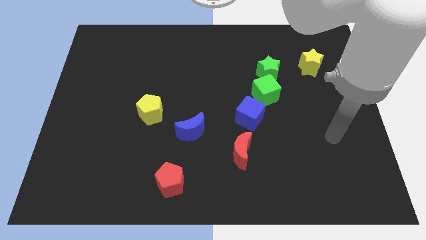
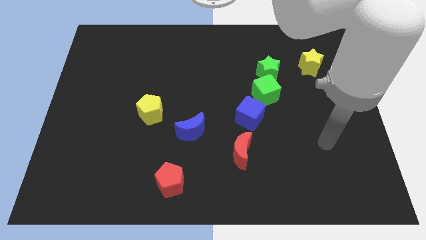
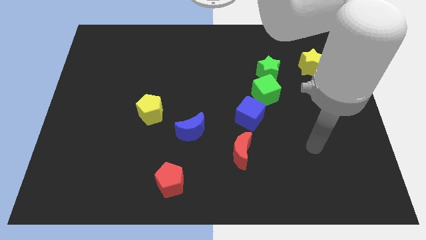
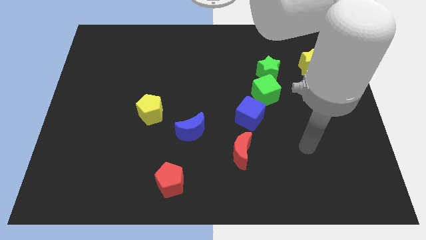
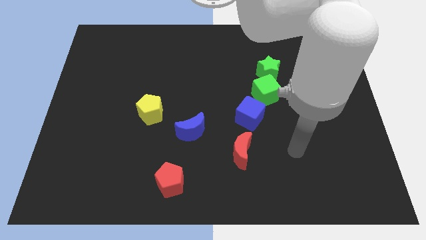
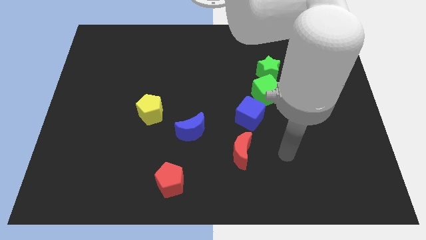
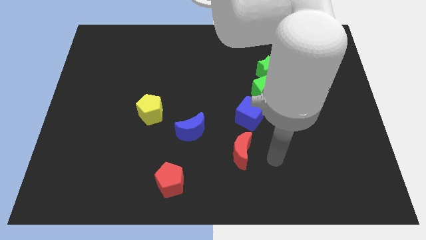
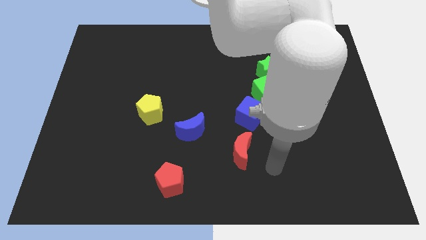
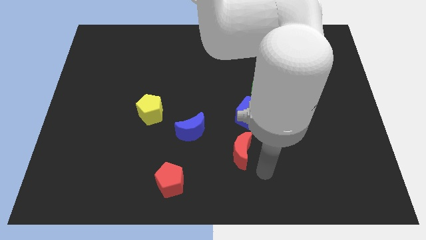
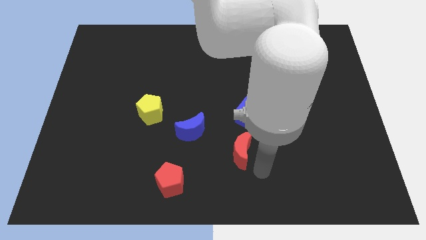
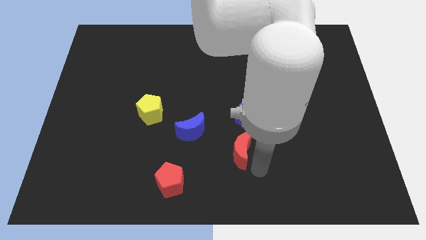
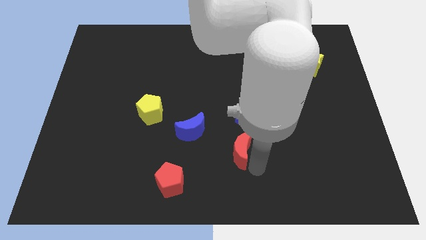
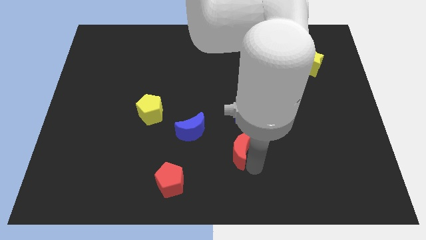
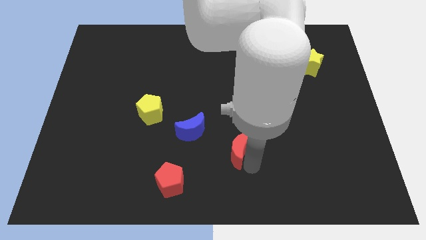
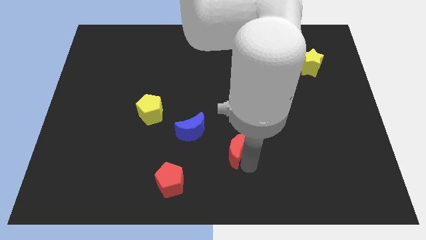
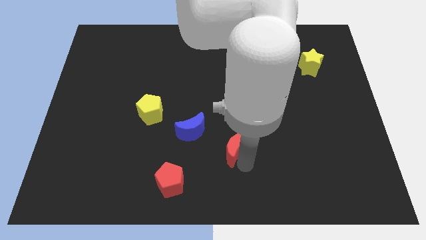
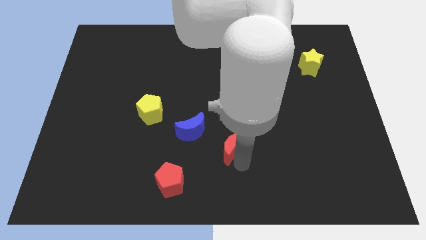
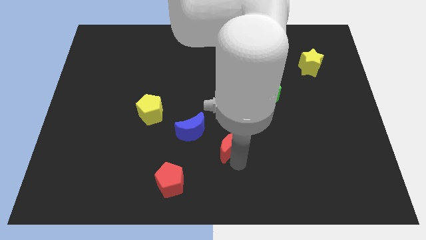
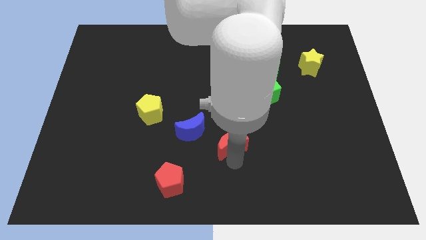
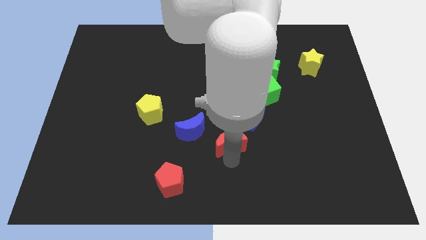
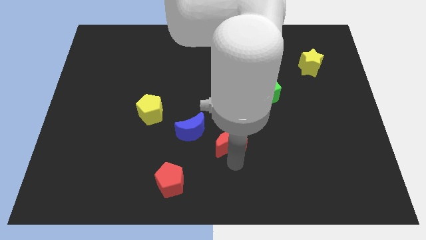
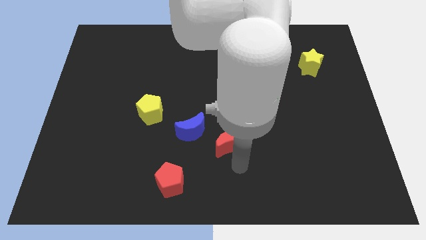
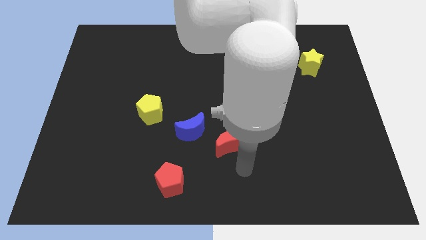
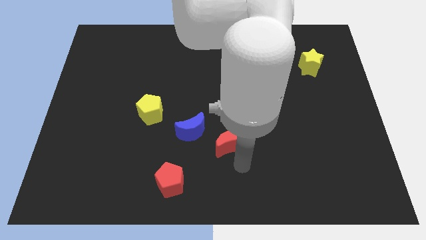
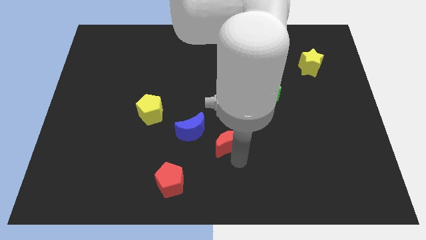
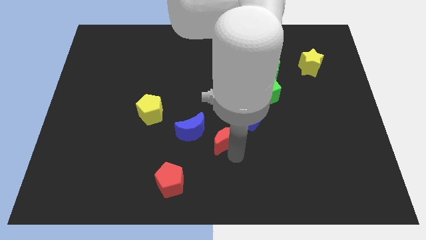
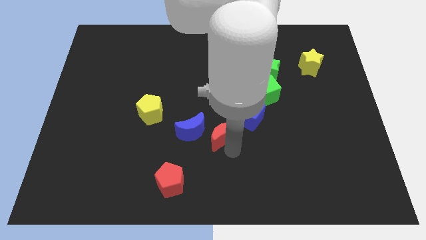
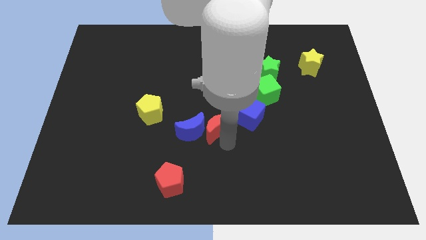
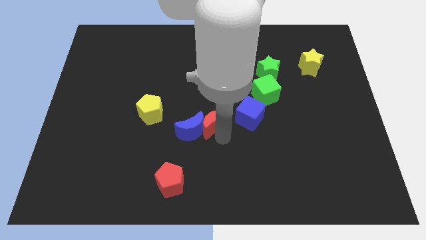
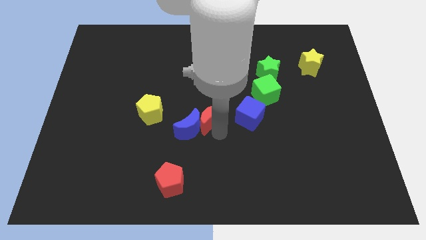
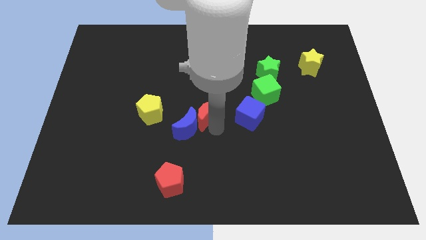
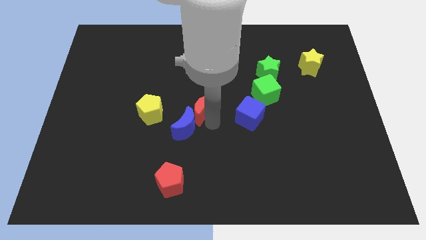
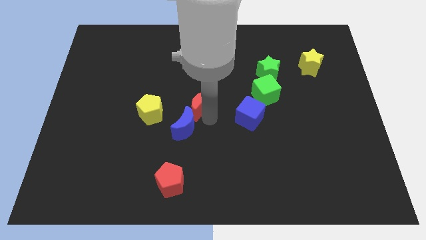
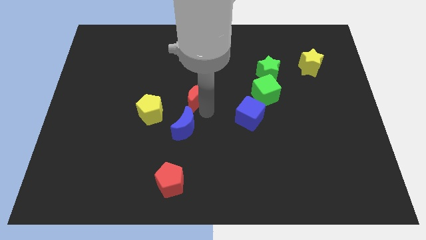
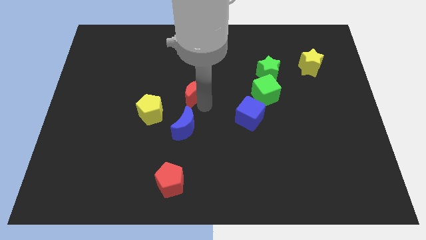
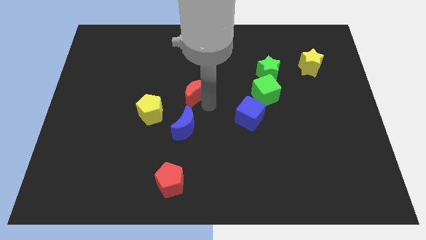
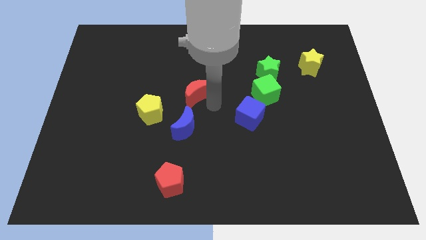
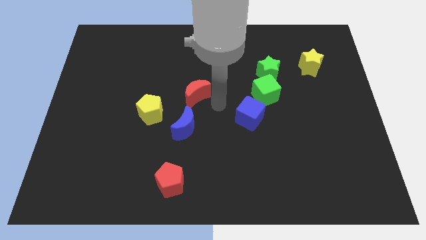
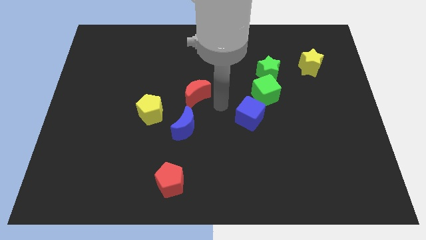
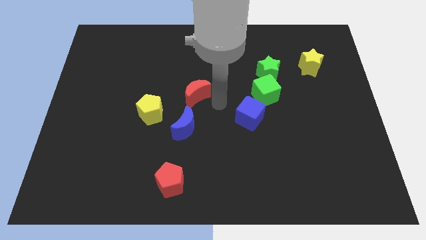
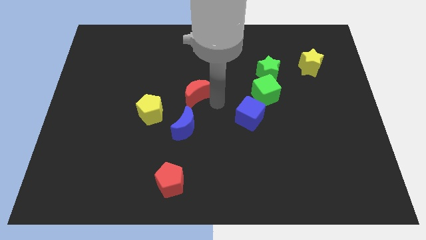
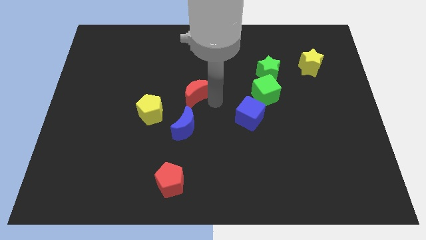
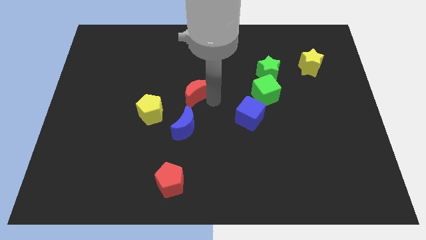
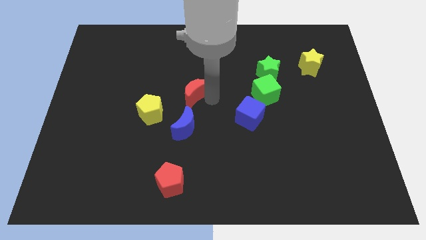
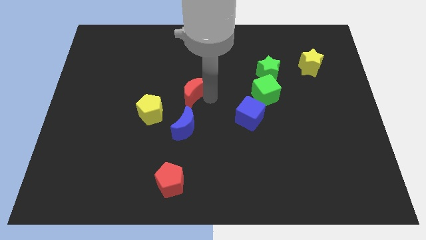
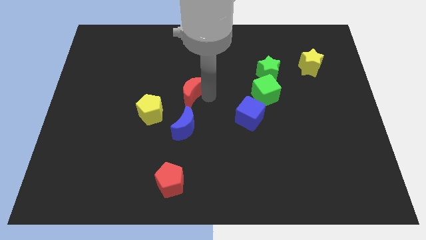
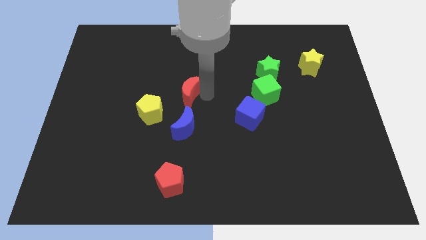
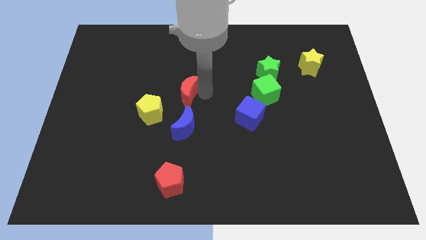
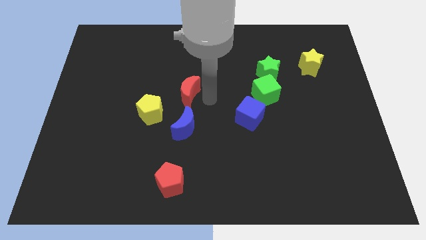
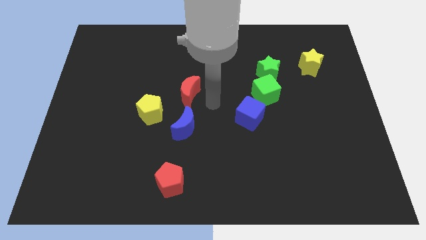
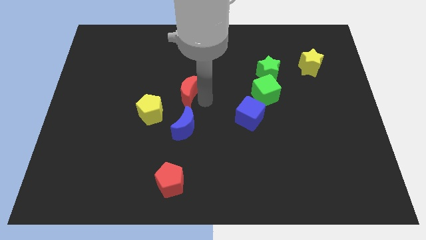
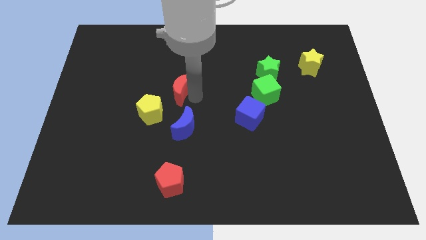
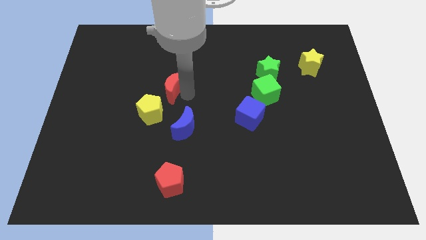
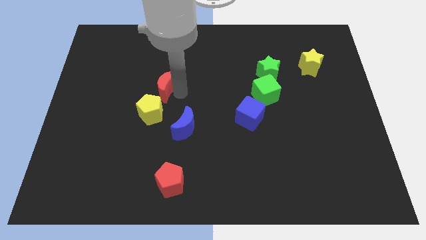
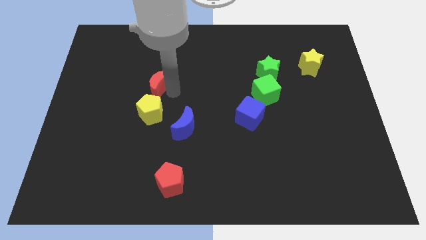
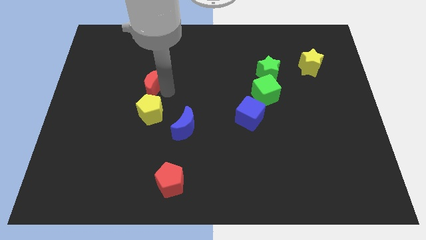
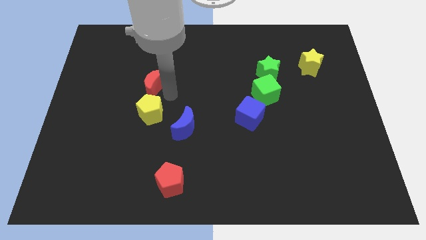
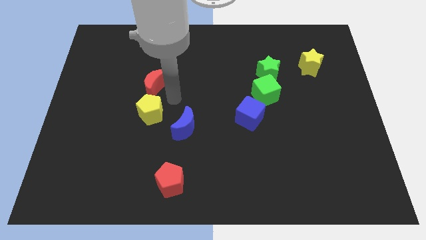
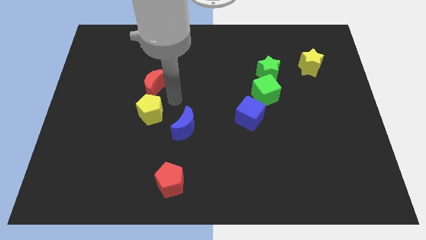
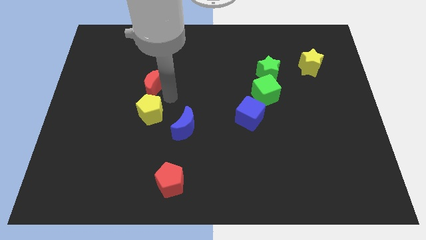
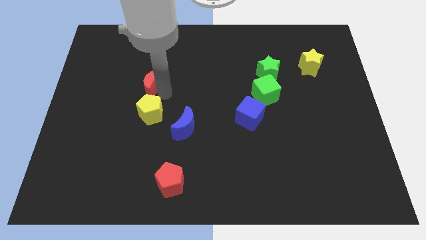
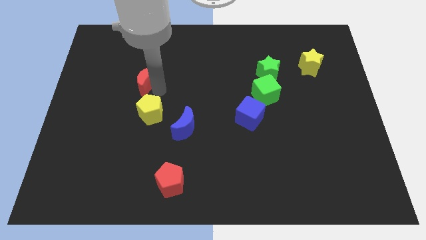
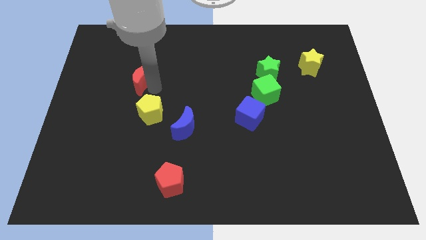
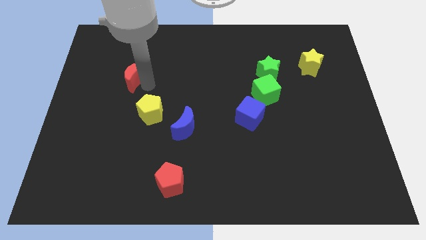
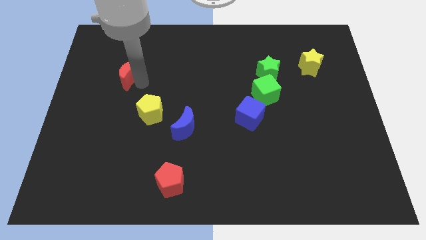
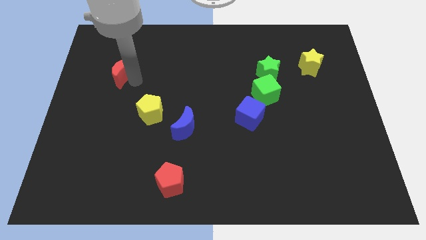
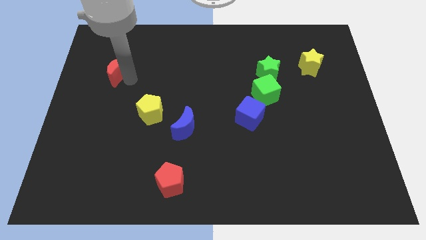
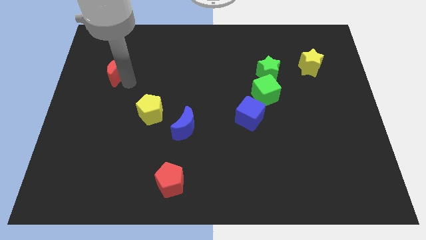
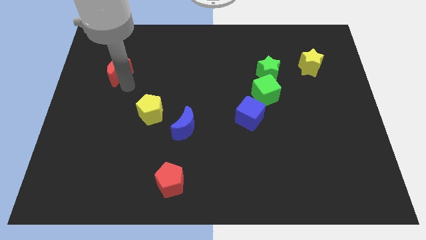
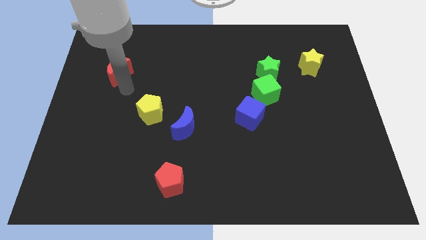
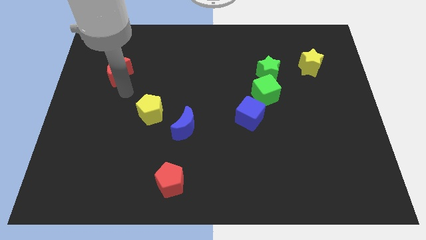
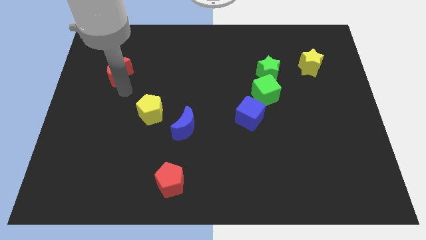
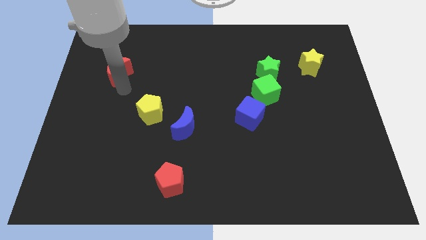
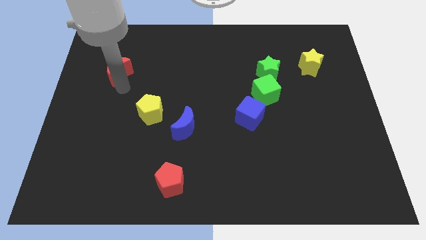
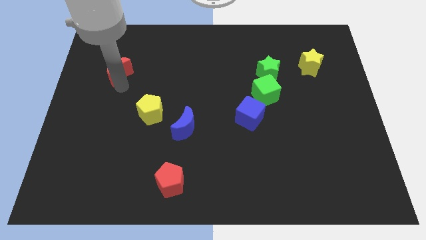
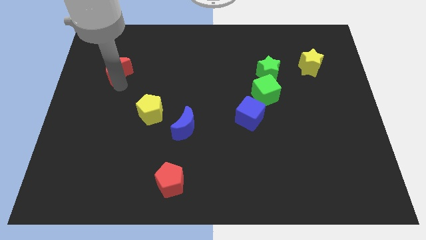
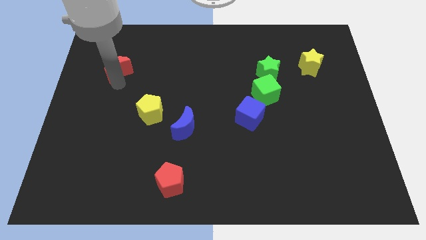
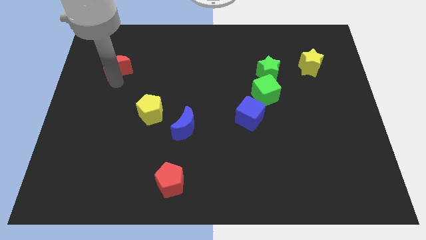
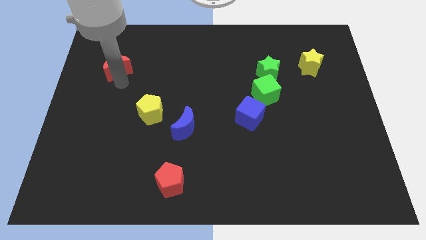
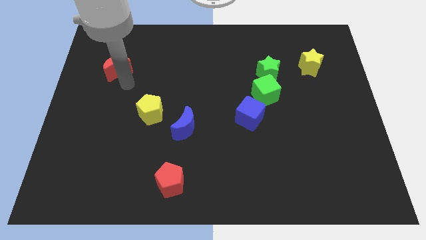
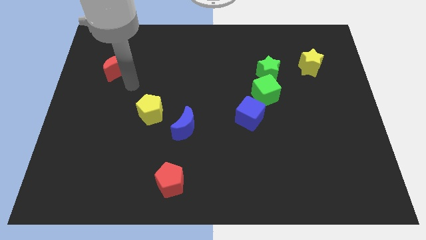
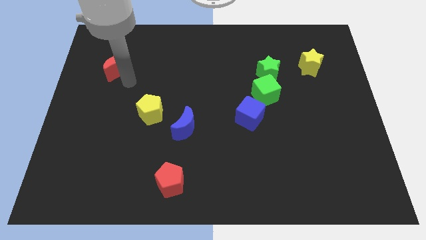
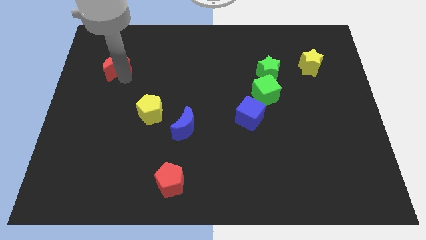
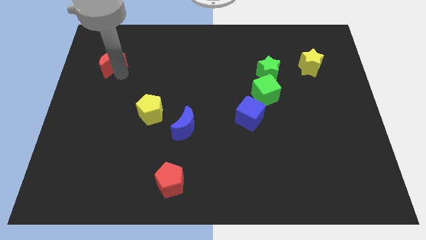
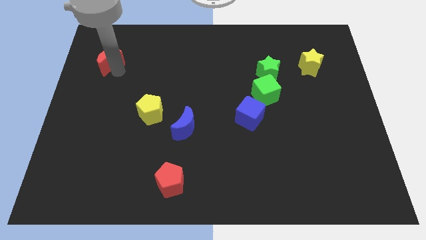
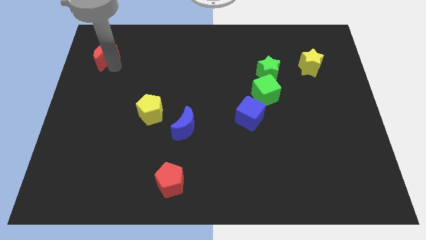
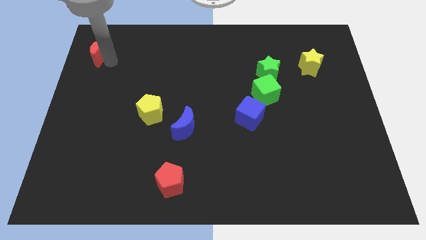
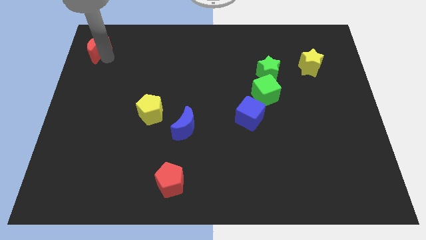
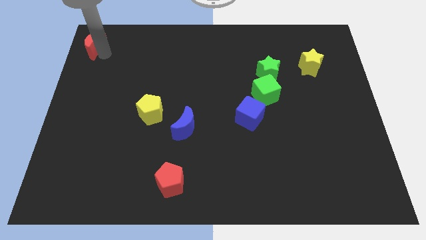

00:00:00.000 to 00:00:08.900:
put the red moon to the top left
